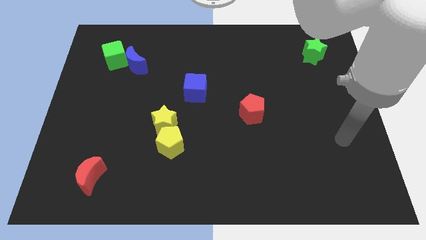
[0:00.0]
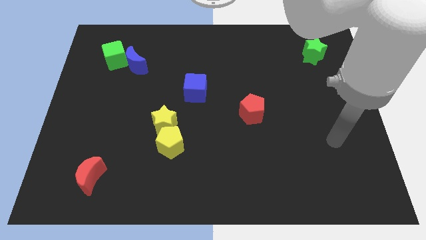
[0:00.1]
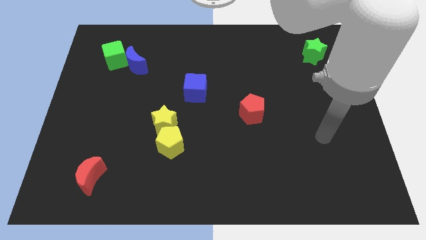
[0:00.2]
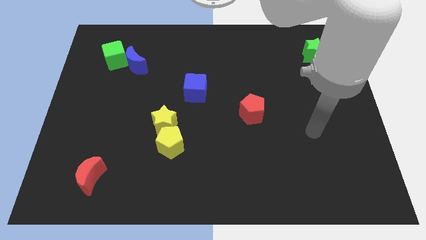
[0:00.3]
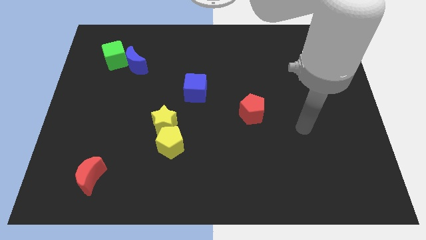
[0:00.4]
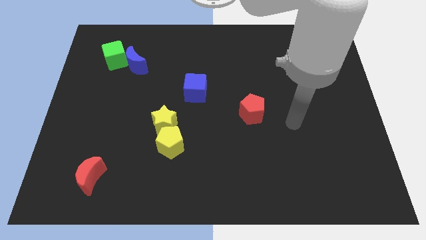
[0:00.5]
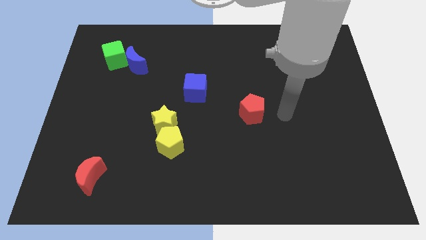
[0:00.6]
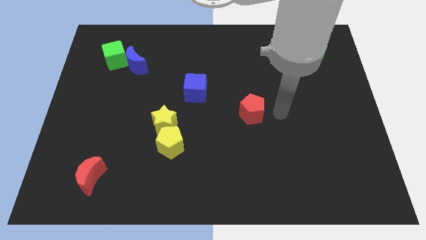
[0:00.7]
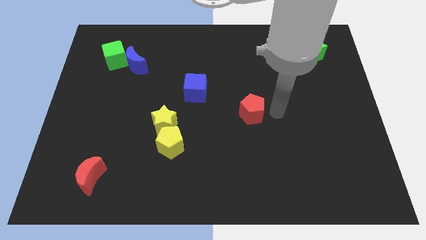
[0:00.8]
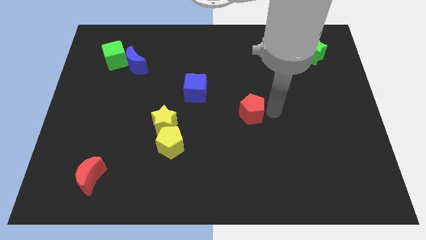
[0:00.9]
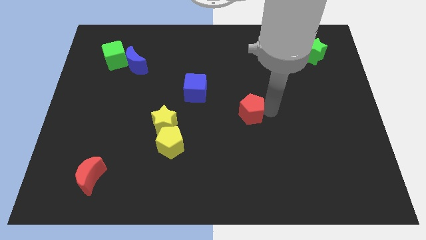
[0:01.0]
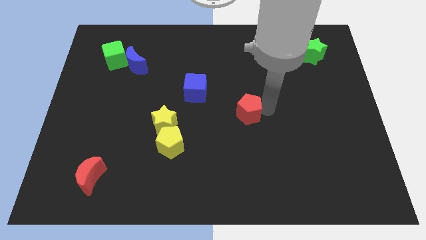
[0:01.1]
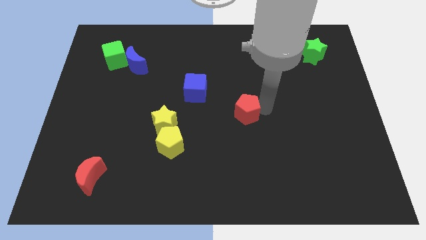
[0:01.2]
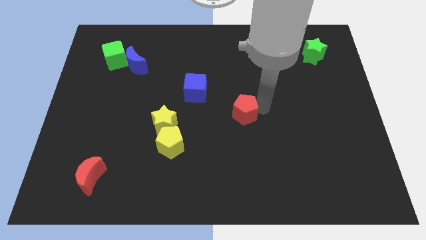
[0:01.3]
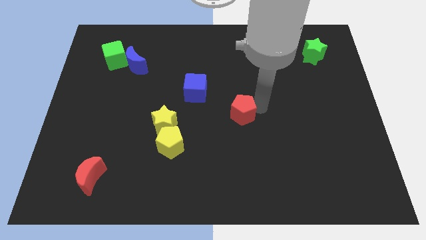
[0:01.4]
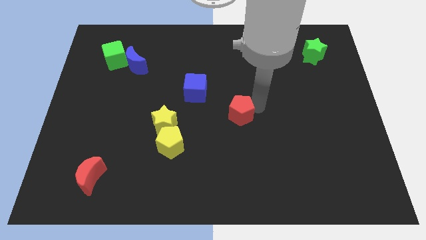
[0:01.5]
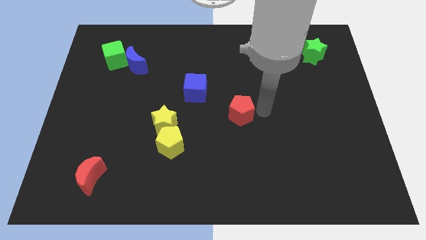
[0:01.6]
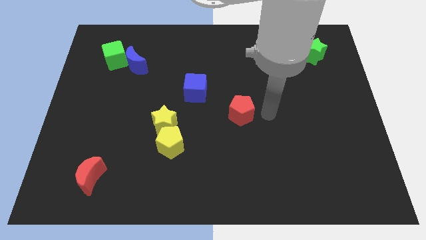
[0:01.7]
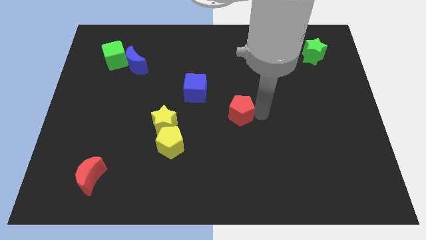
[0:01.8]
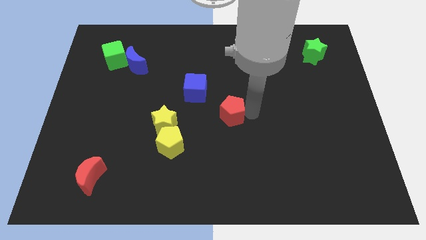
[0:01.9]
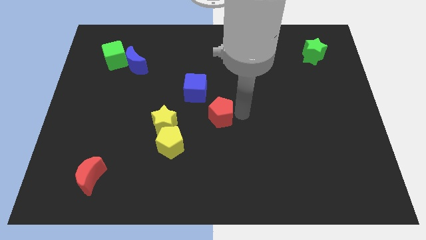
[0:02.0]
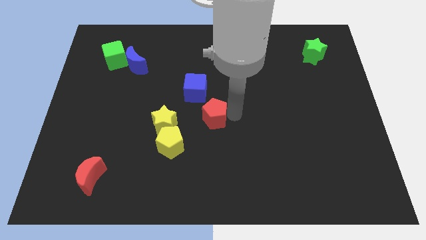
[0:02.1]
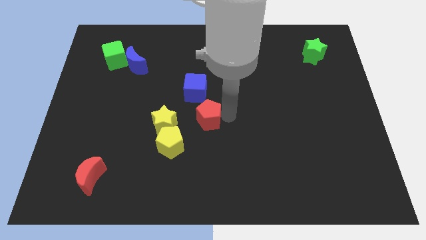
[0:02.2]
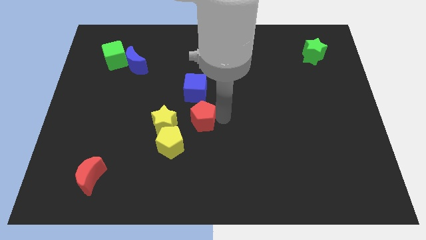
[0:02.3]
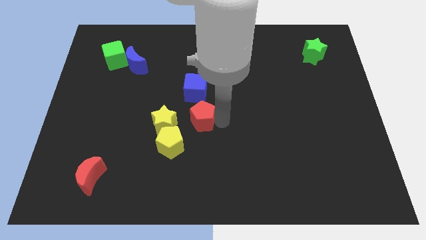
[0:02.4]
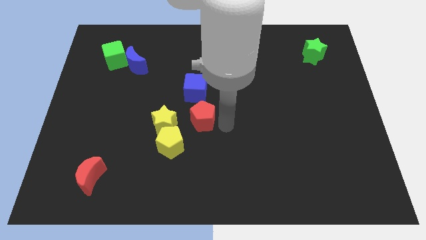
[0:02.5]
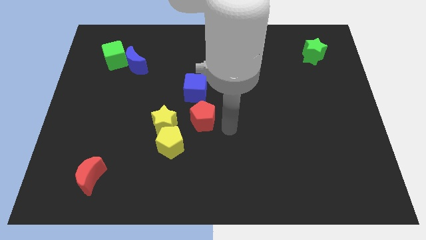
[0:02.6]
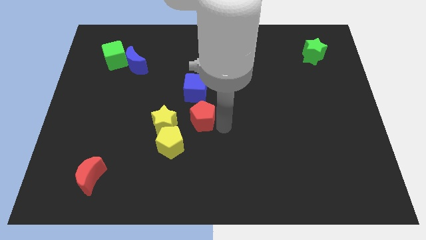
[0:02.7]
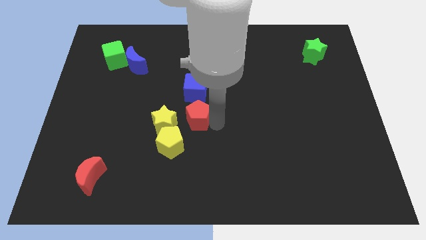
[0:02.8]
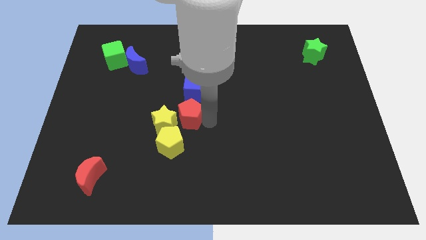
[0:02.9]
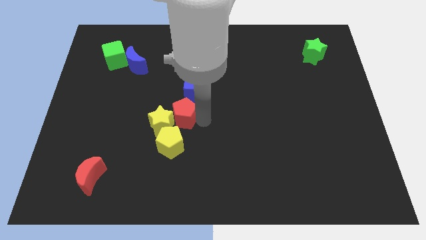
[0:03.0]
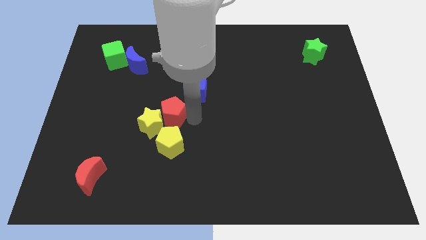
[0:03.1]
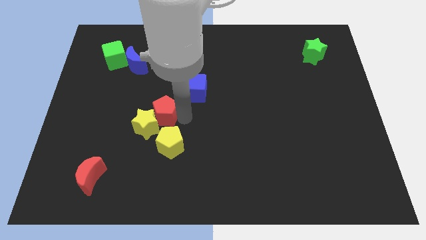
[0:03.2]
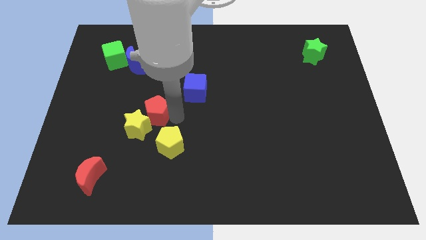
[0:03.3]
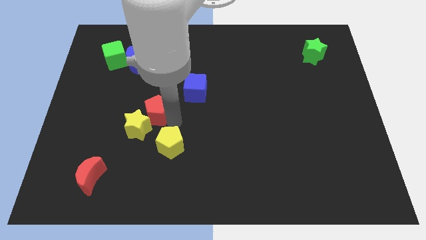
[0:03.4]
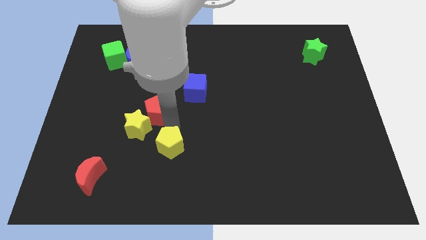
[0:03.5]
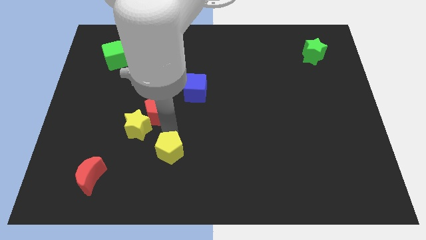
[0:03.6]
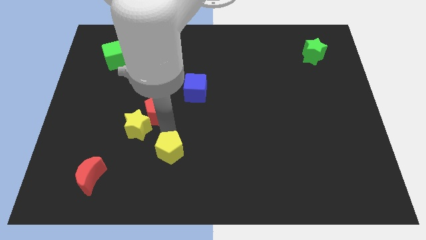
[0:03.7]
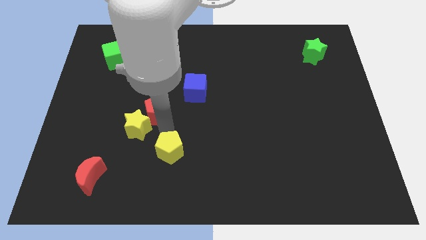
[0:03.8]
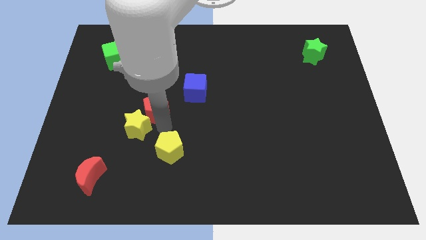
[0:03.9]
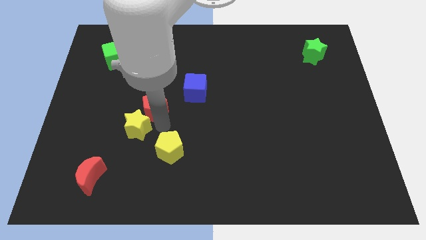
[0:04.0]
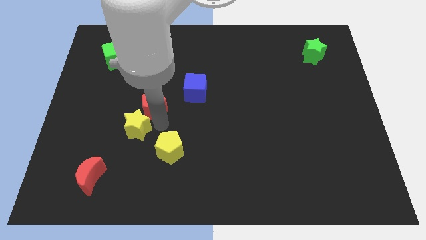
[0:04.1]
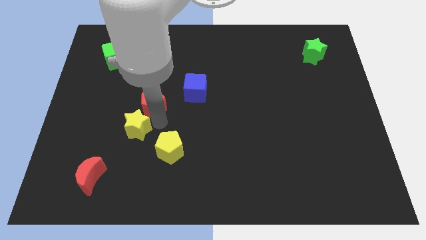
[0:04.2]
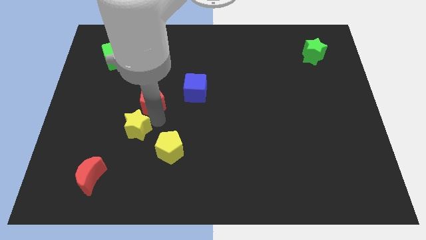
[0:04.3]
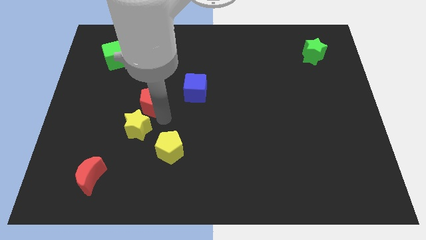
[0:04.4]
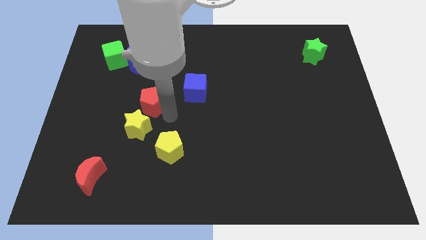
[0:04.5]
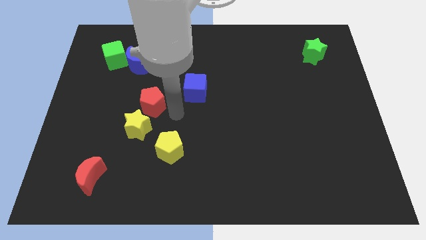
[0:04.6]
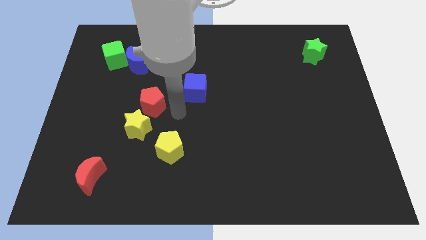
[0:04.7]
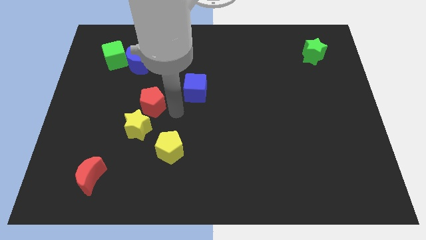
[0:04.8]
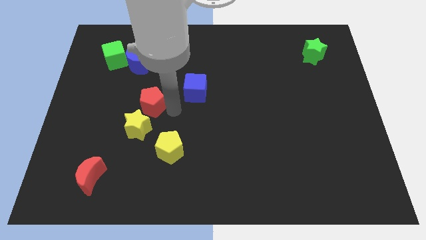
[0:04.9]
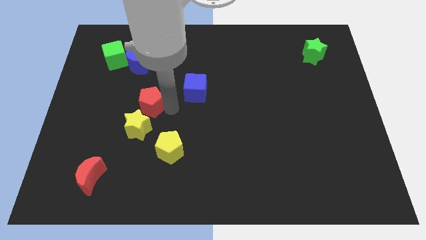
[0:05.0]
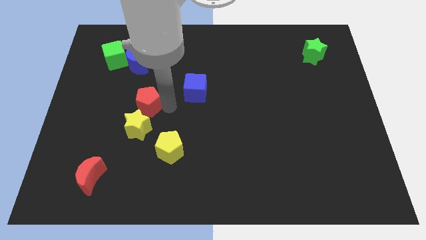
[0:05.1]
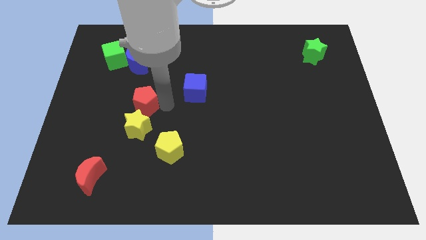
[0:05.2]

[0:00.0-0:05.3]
slide the red pentagon to the bottom of the blue moon

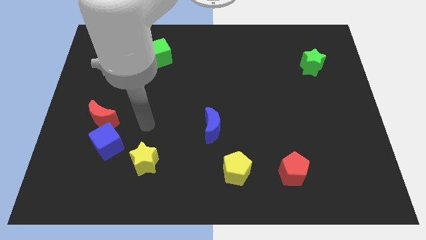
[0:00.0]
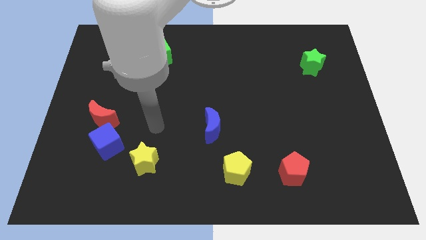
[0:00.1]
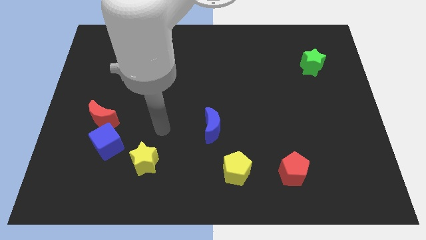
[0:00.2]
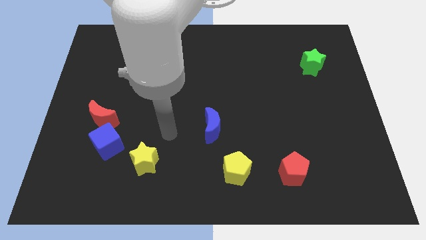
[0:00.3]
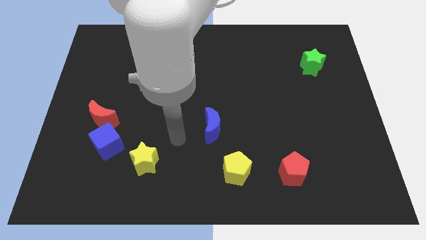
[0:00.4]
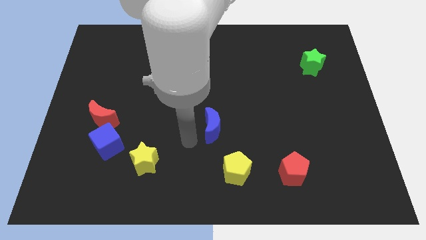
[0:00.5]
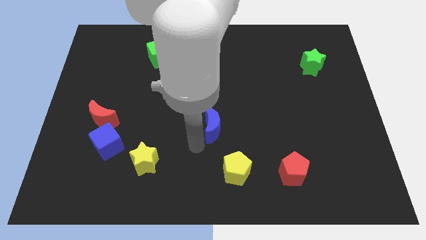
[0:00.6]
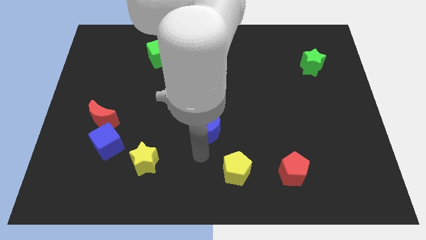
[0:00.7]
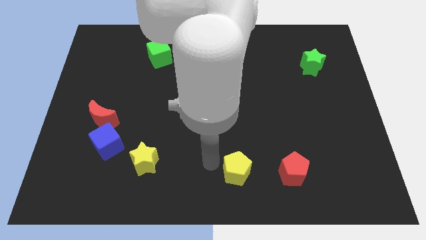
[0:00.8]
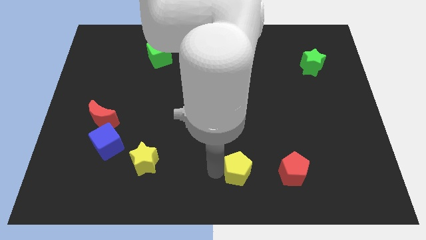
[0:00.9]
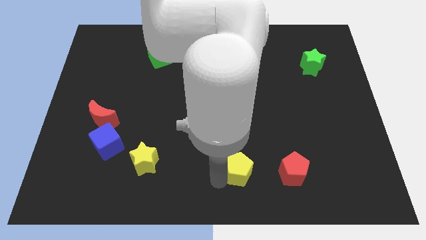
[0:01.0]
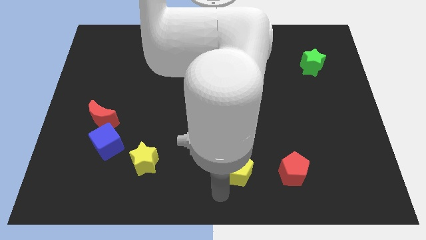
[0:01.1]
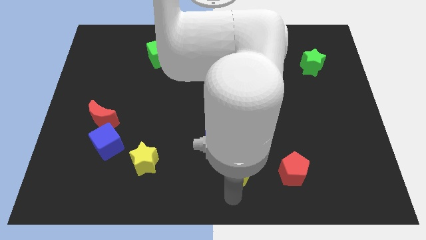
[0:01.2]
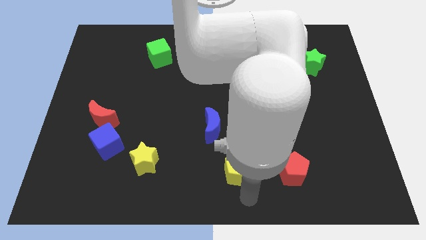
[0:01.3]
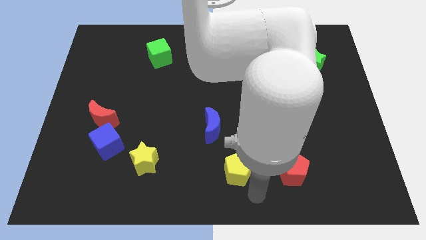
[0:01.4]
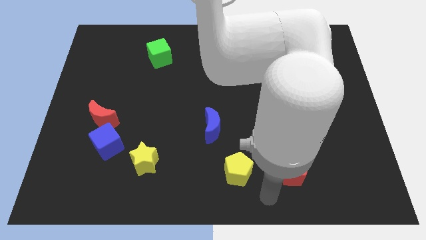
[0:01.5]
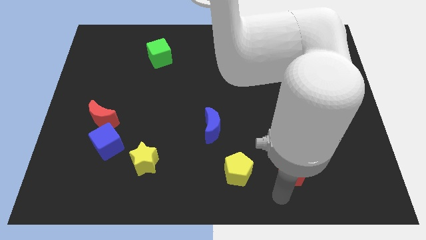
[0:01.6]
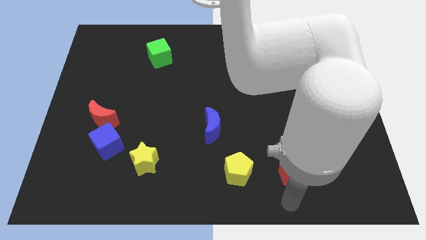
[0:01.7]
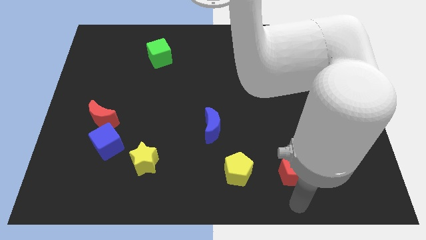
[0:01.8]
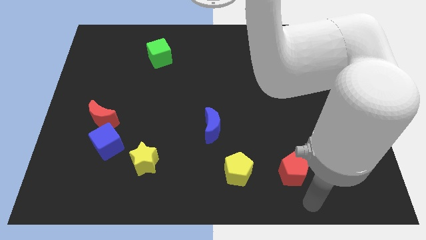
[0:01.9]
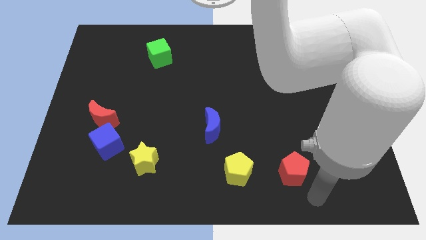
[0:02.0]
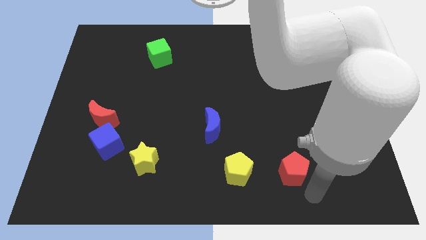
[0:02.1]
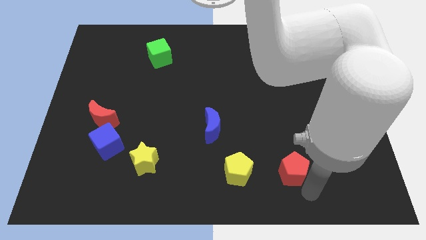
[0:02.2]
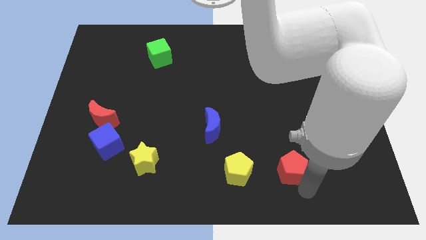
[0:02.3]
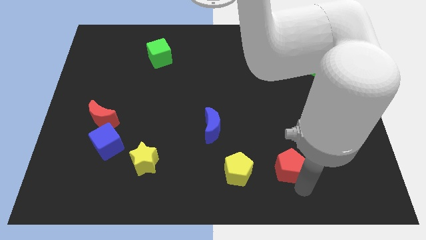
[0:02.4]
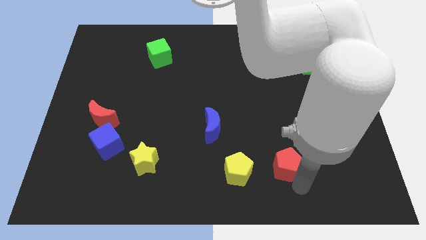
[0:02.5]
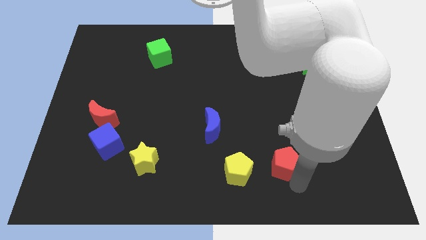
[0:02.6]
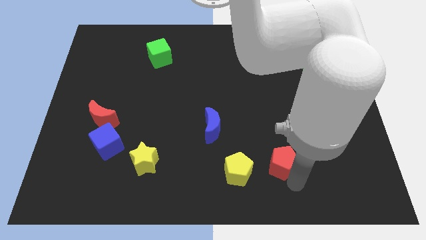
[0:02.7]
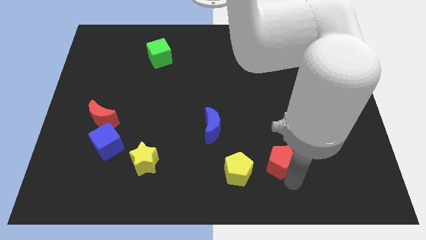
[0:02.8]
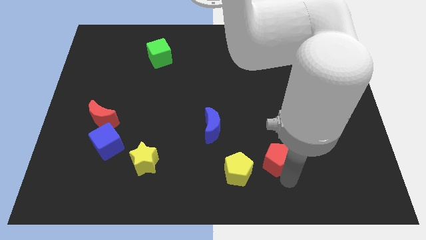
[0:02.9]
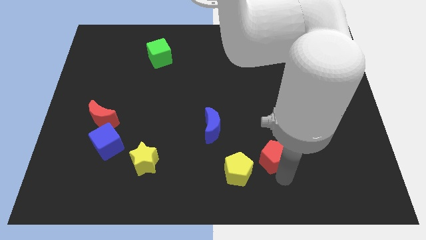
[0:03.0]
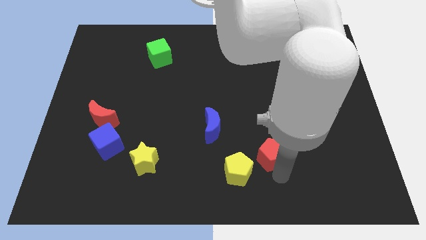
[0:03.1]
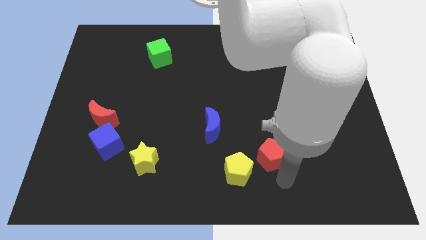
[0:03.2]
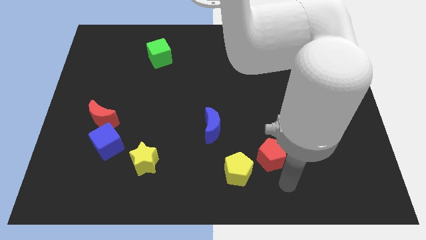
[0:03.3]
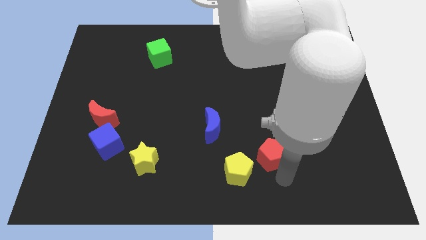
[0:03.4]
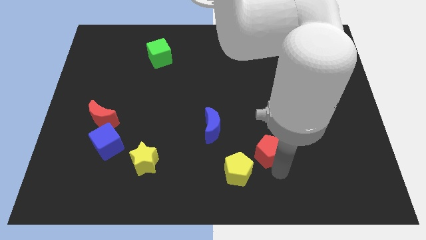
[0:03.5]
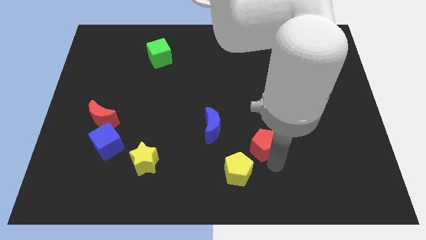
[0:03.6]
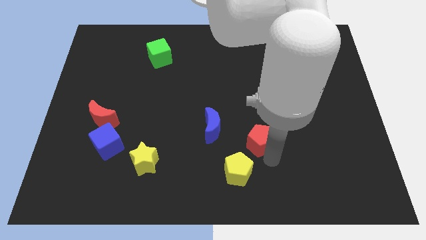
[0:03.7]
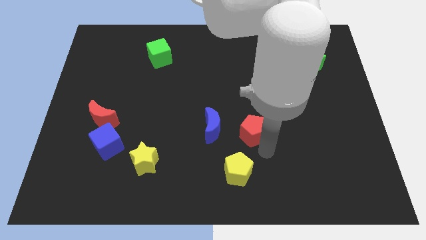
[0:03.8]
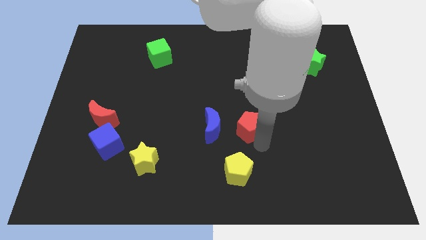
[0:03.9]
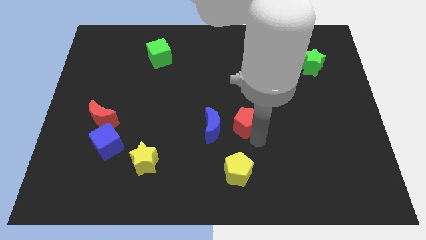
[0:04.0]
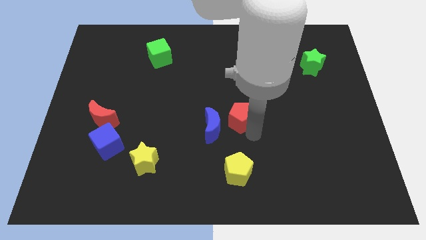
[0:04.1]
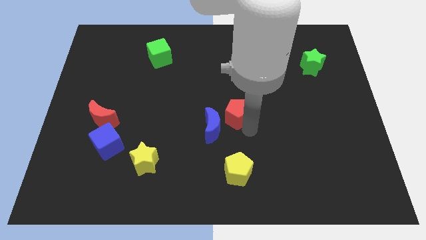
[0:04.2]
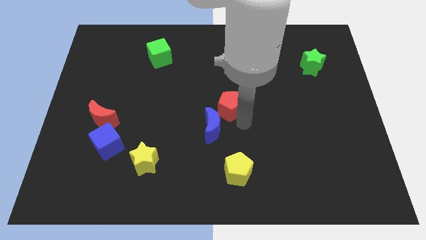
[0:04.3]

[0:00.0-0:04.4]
slide the red pentagon to the top side of the blue moon
